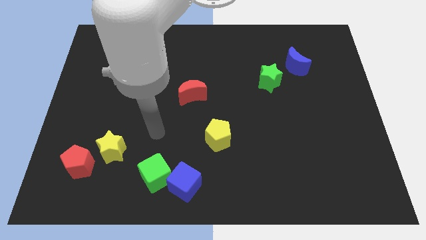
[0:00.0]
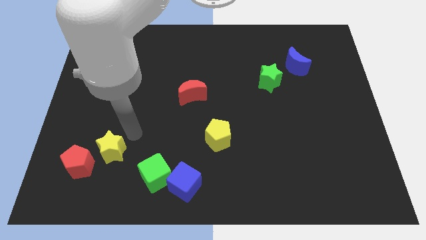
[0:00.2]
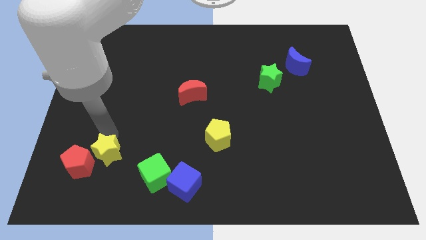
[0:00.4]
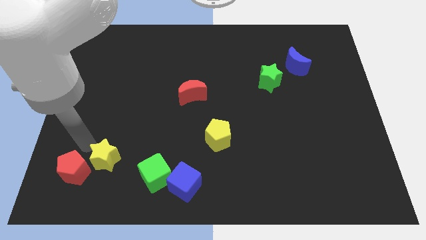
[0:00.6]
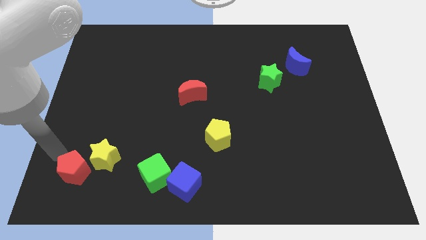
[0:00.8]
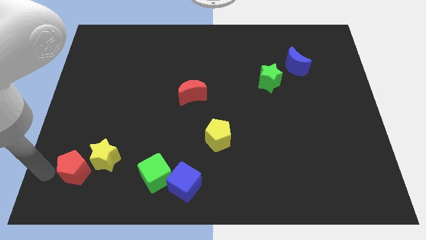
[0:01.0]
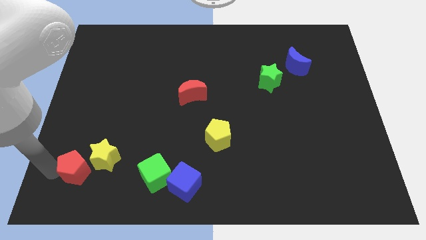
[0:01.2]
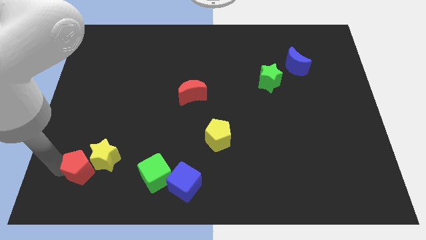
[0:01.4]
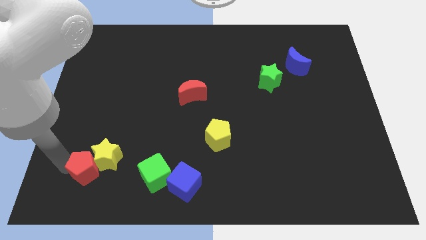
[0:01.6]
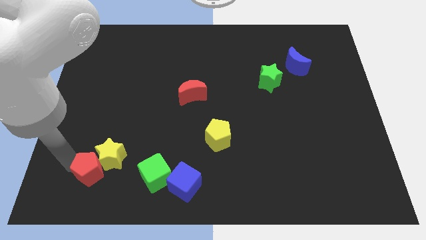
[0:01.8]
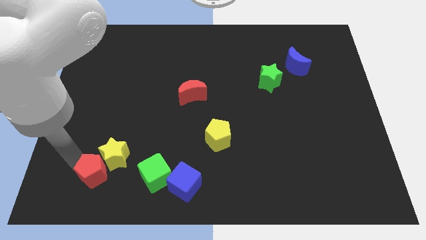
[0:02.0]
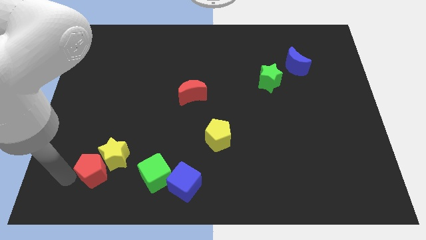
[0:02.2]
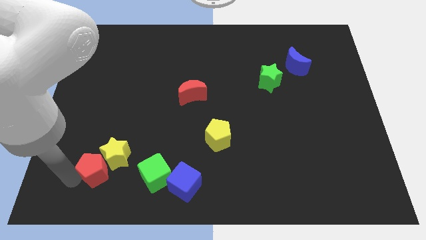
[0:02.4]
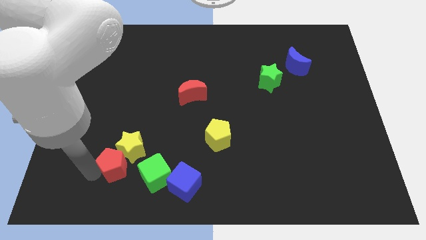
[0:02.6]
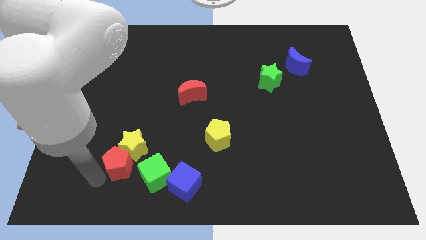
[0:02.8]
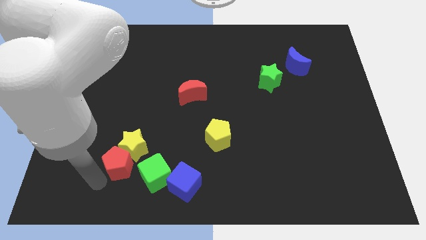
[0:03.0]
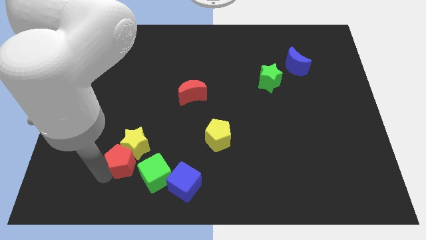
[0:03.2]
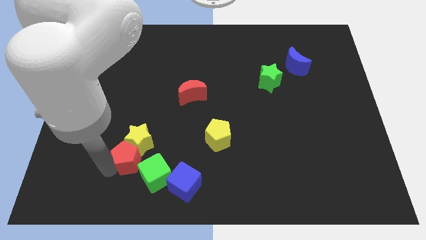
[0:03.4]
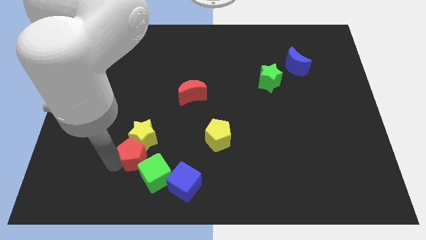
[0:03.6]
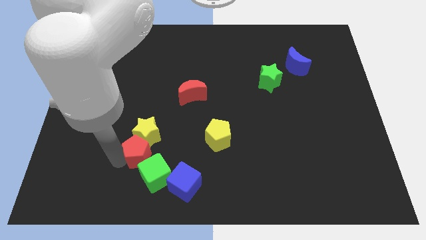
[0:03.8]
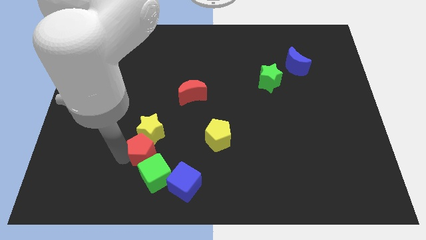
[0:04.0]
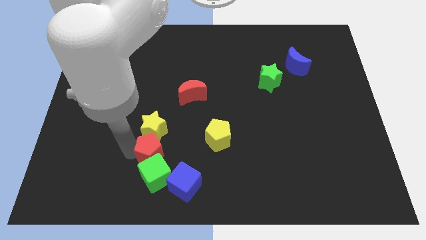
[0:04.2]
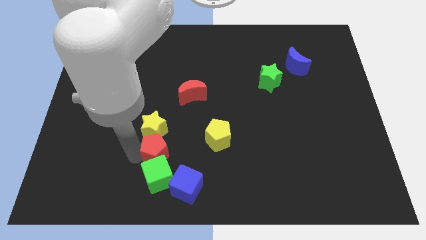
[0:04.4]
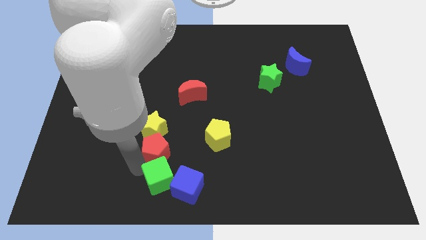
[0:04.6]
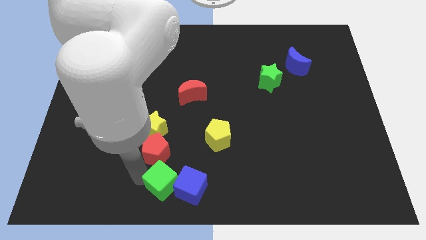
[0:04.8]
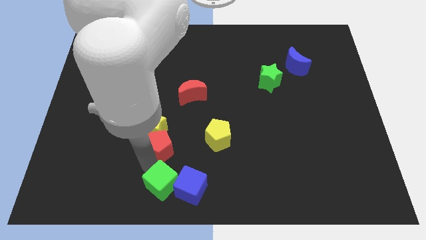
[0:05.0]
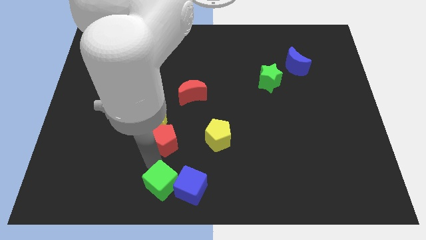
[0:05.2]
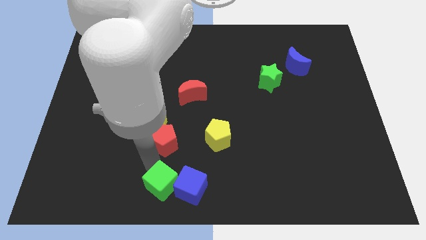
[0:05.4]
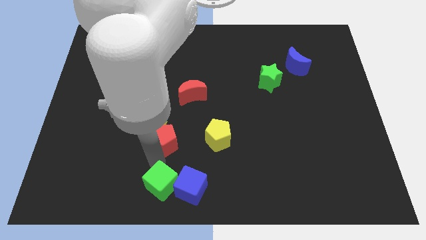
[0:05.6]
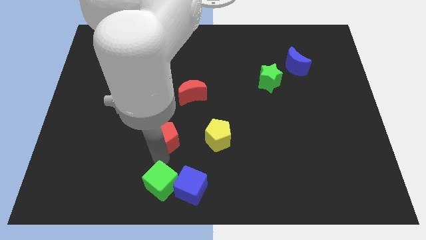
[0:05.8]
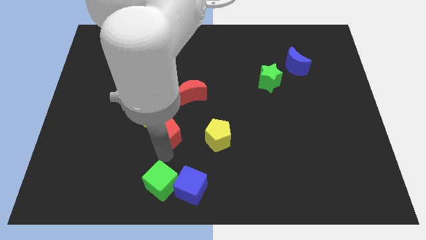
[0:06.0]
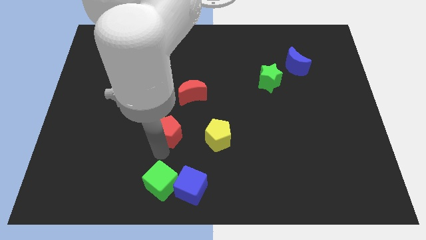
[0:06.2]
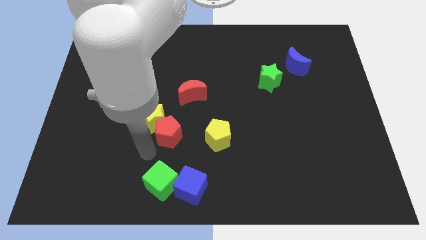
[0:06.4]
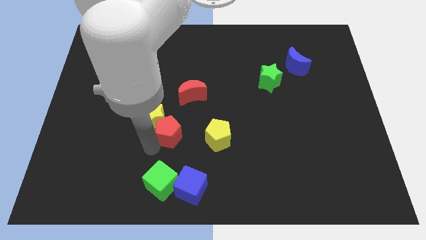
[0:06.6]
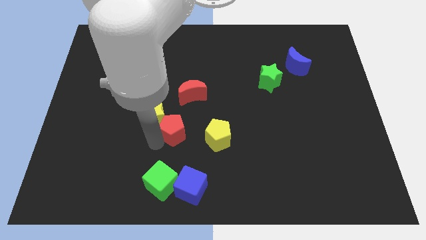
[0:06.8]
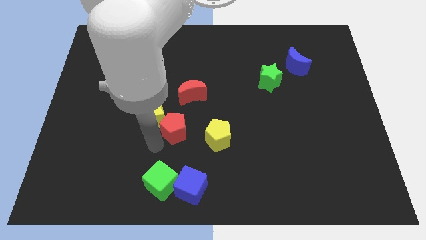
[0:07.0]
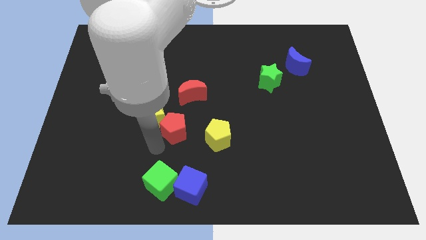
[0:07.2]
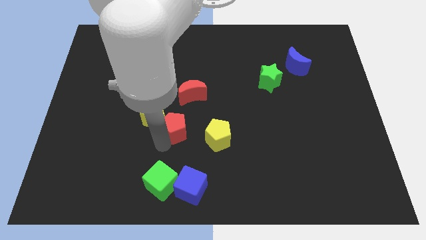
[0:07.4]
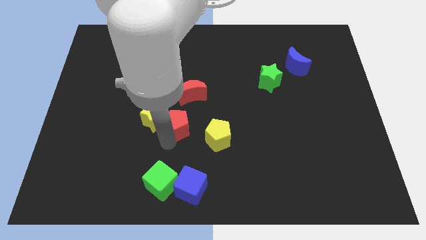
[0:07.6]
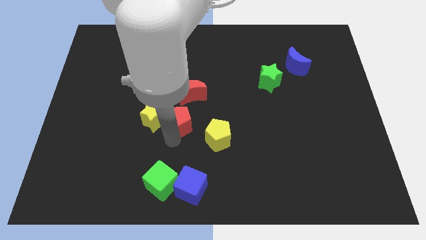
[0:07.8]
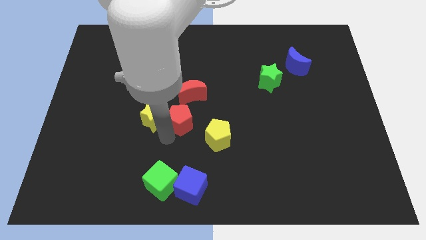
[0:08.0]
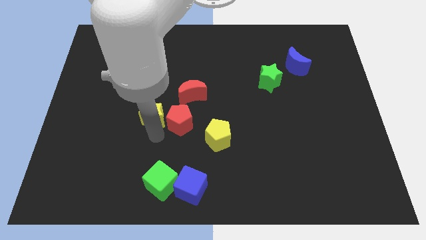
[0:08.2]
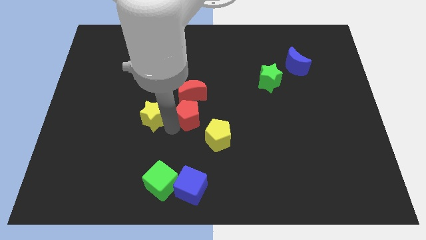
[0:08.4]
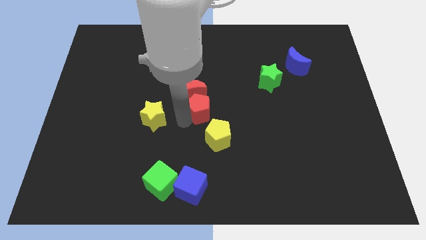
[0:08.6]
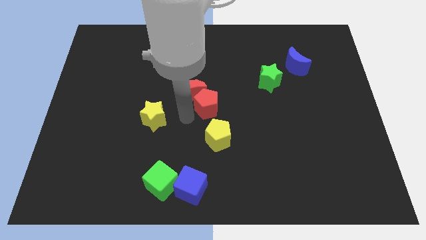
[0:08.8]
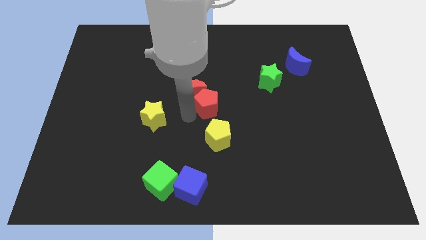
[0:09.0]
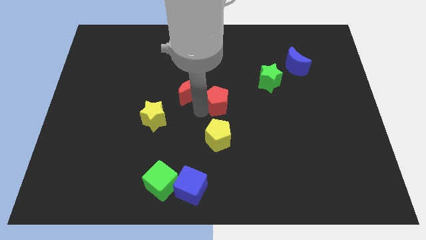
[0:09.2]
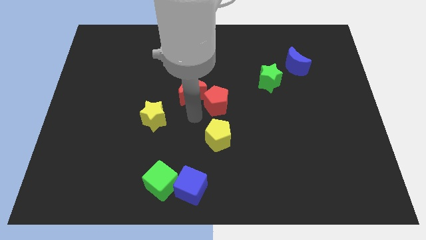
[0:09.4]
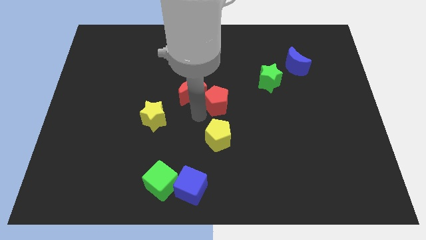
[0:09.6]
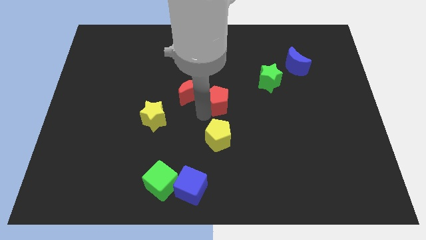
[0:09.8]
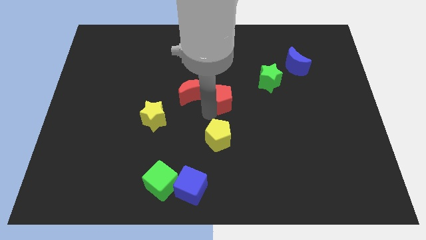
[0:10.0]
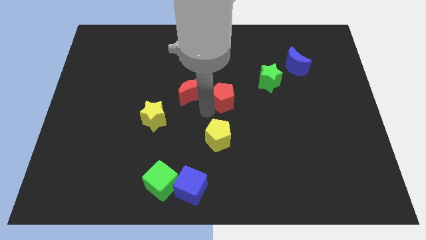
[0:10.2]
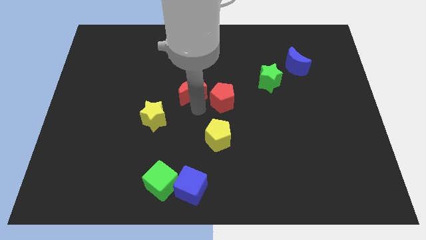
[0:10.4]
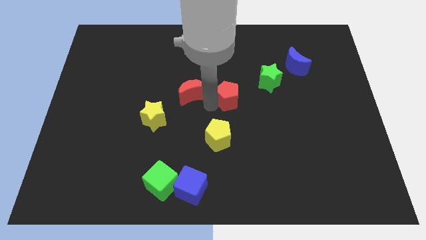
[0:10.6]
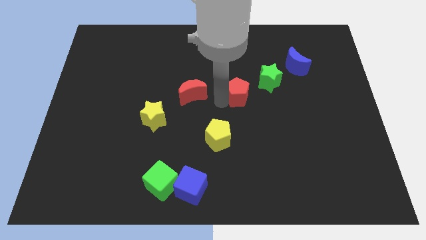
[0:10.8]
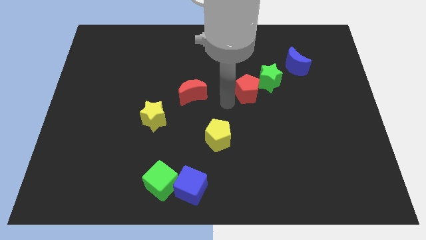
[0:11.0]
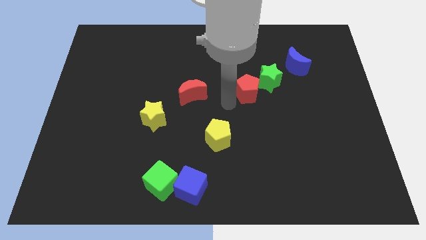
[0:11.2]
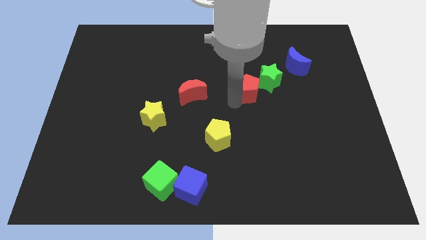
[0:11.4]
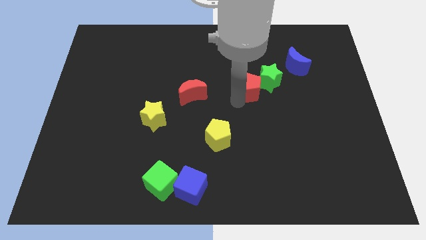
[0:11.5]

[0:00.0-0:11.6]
slide the red pentagon close to the green star

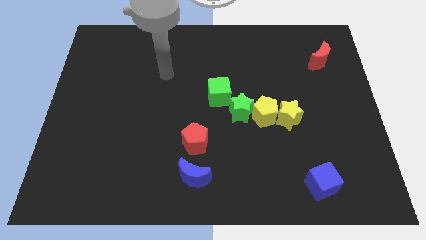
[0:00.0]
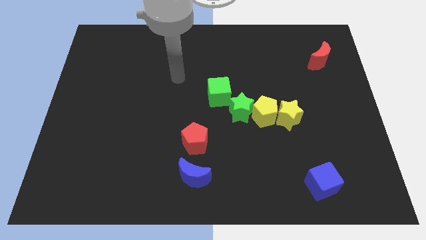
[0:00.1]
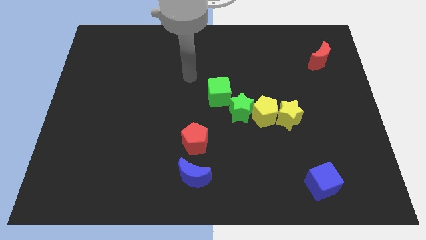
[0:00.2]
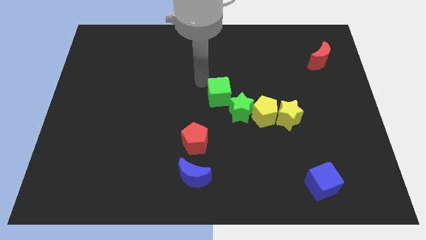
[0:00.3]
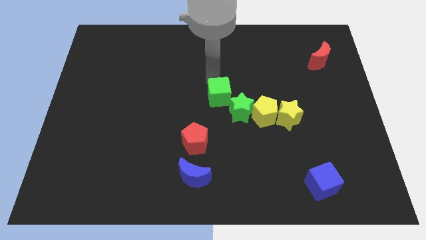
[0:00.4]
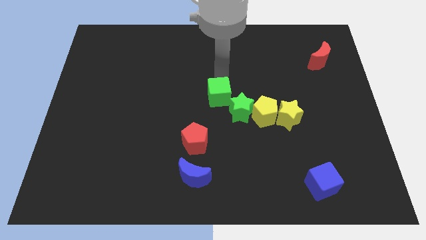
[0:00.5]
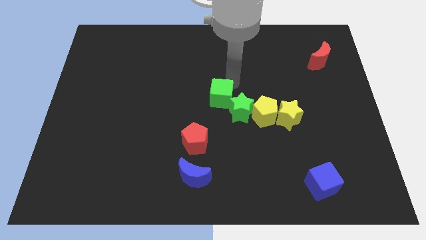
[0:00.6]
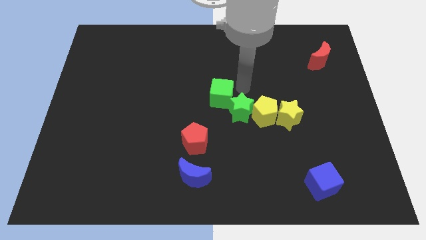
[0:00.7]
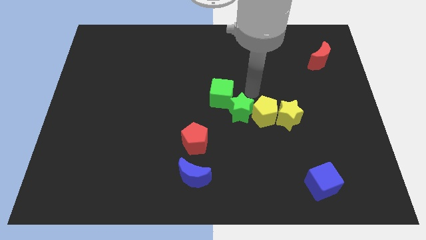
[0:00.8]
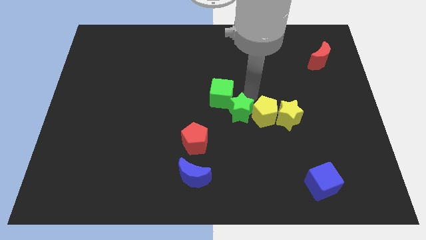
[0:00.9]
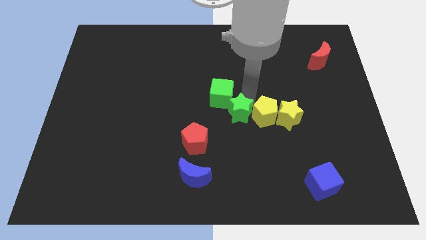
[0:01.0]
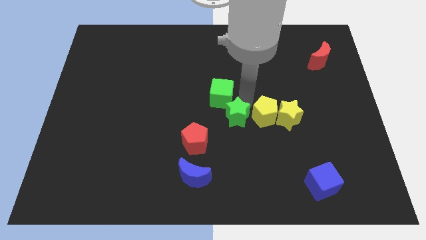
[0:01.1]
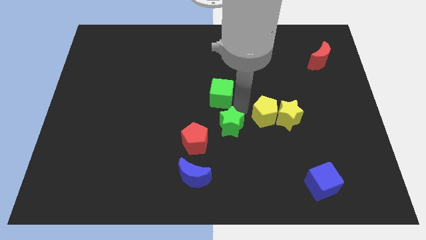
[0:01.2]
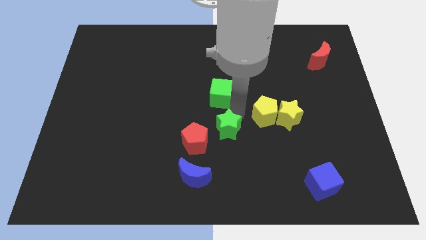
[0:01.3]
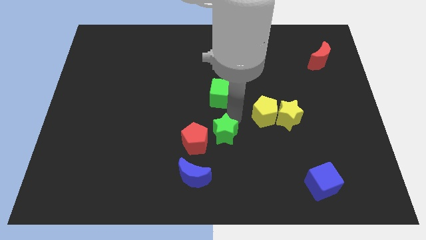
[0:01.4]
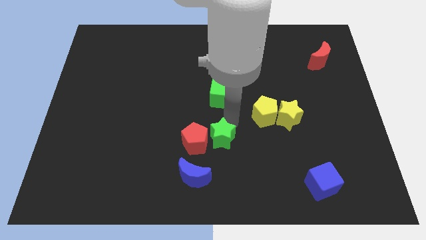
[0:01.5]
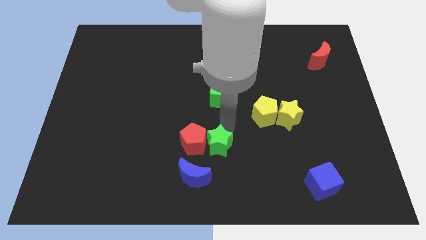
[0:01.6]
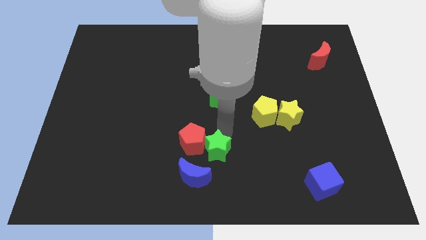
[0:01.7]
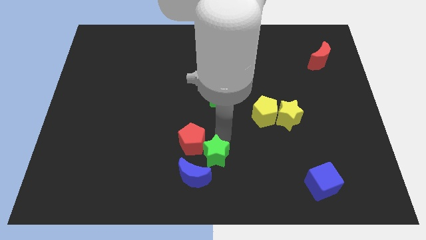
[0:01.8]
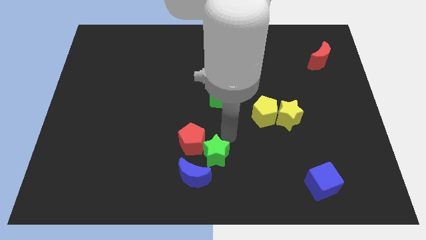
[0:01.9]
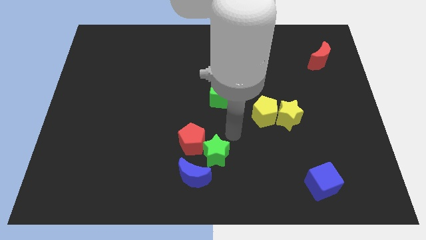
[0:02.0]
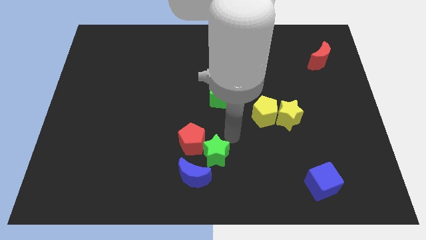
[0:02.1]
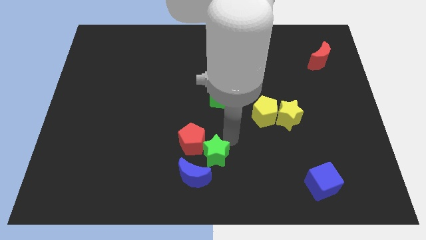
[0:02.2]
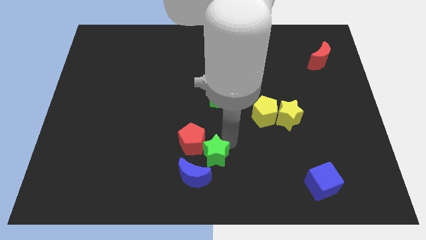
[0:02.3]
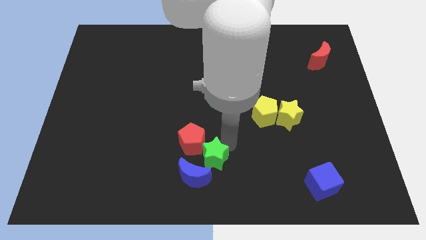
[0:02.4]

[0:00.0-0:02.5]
slide the green star close to the blue moon
